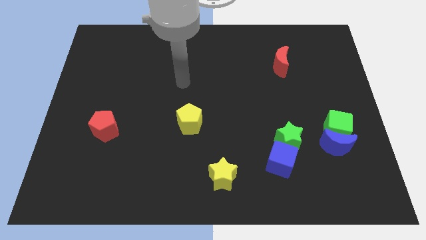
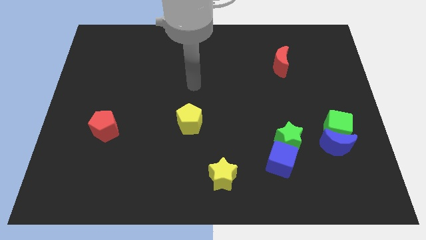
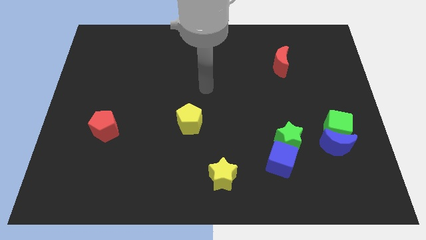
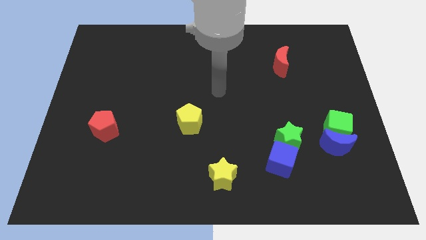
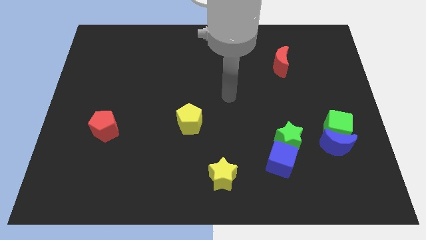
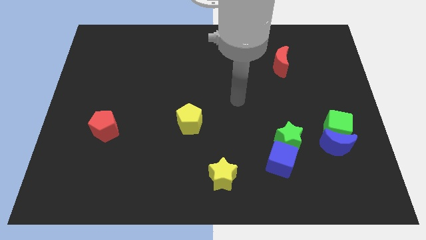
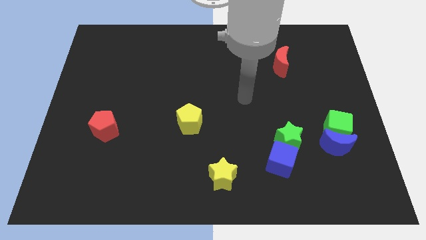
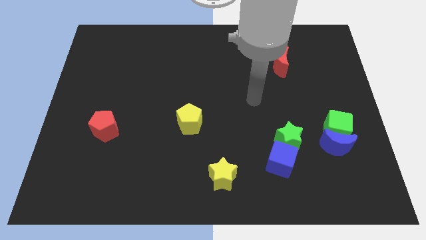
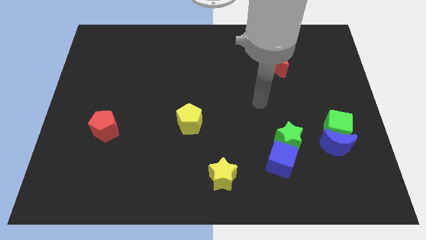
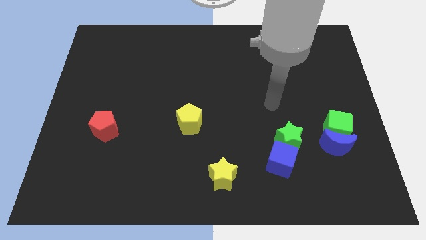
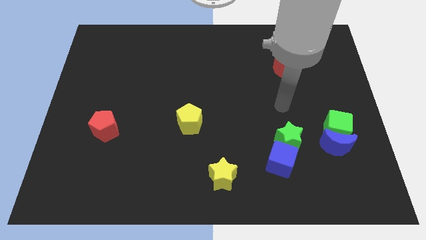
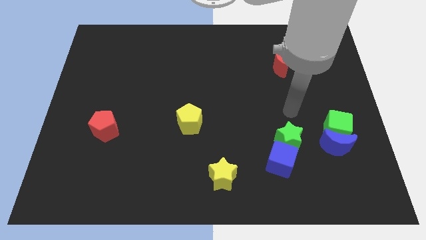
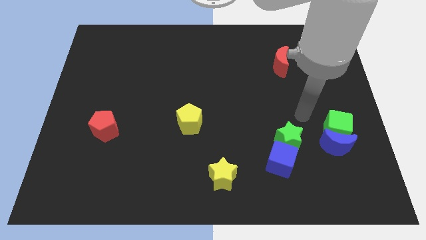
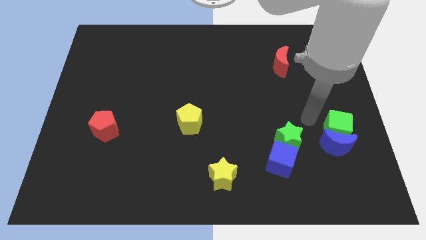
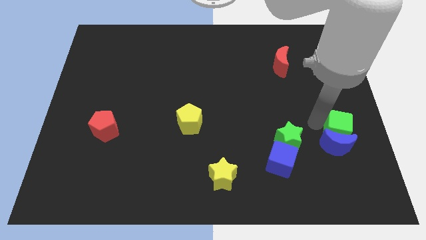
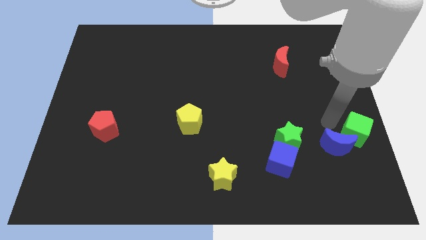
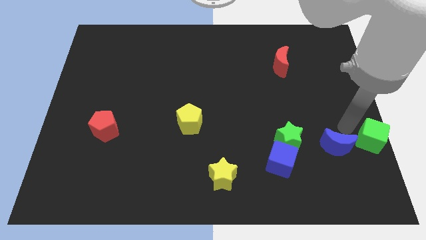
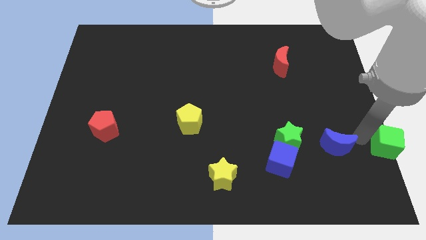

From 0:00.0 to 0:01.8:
pull the blue moon apart from the green cube

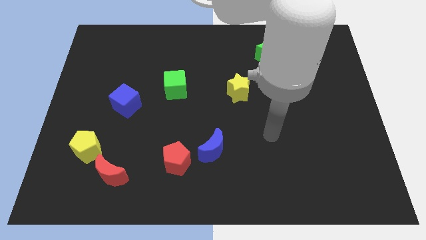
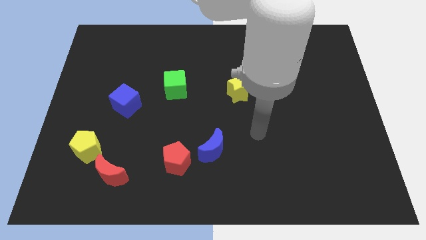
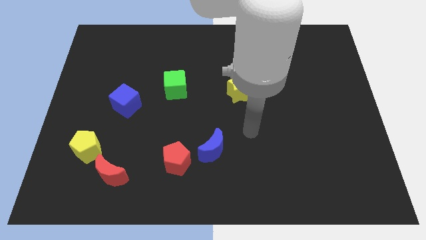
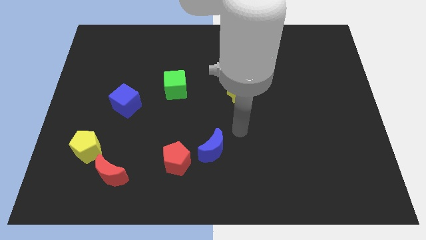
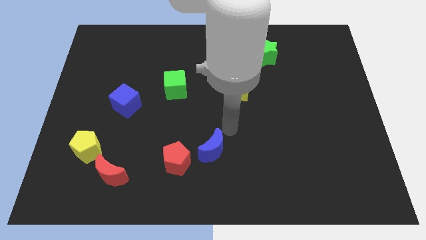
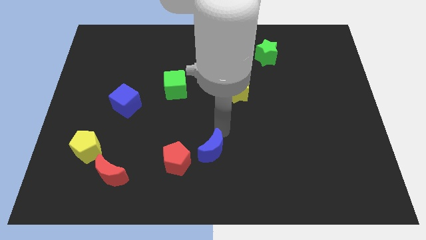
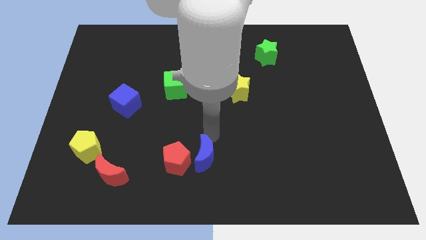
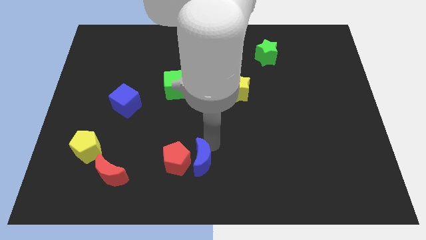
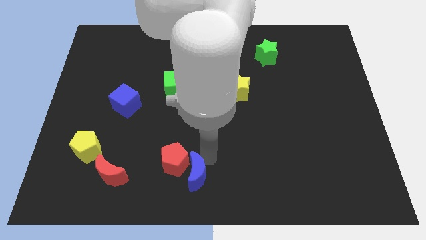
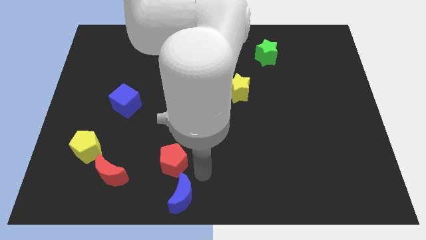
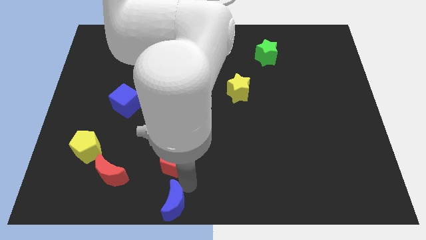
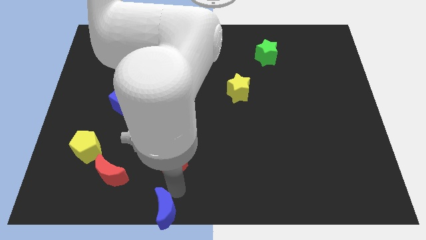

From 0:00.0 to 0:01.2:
pull the red pentagon apart from the blue moon

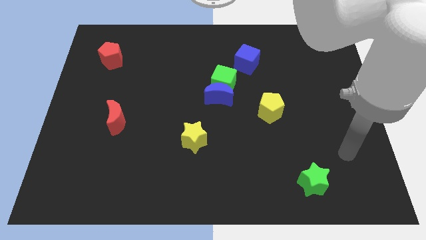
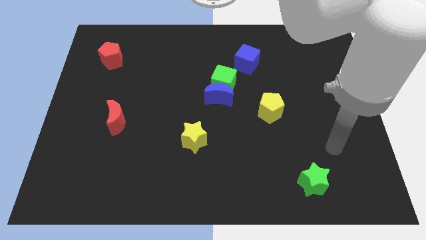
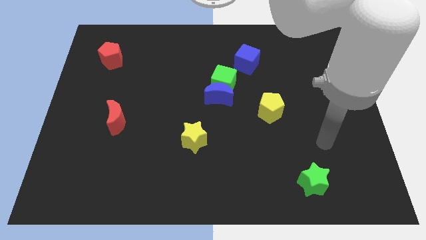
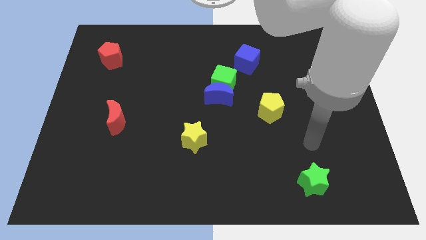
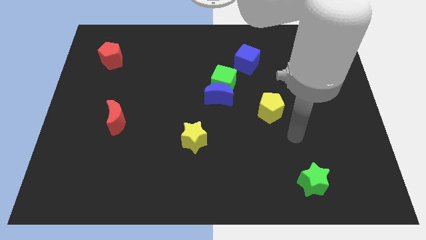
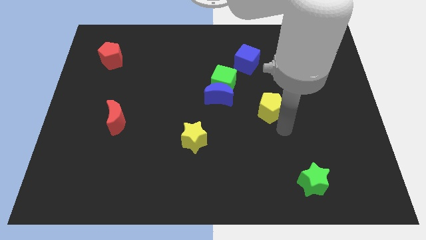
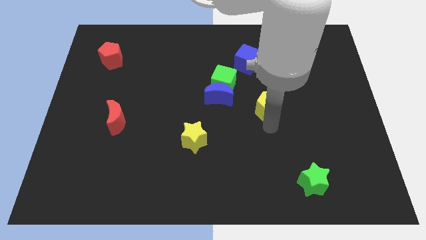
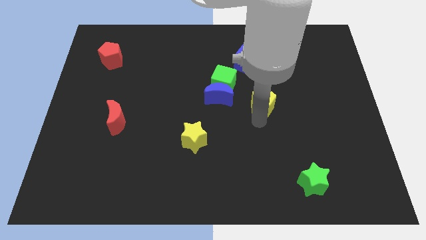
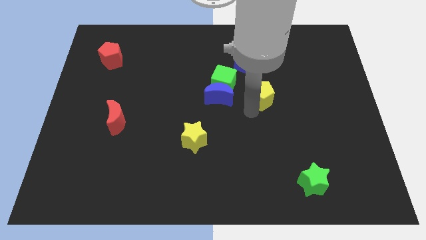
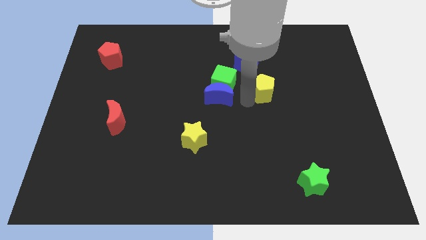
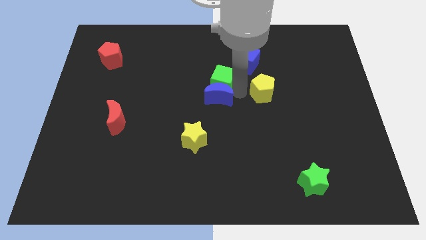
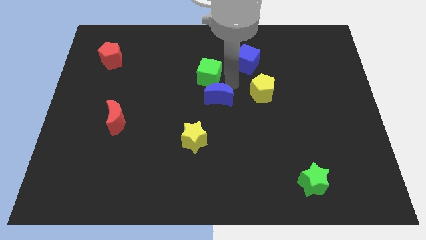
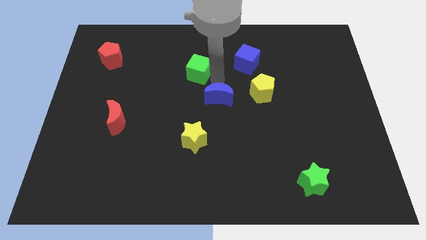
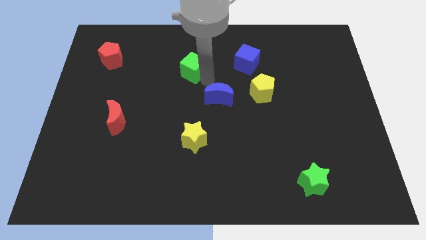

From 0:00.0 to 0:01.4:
separate the blue moon from the green cube

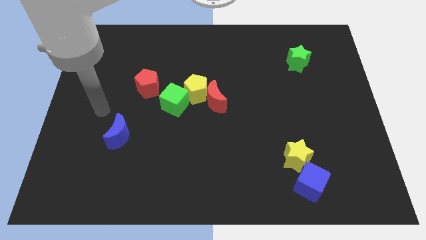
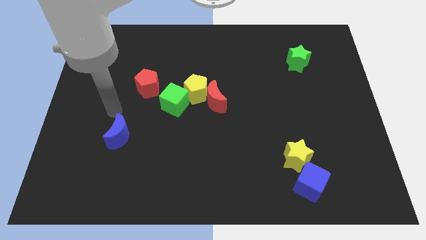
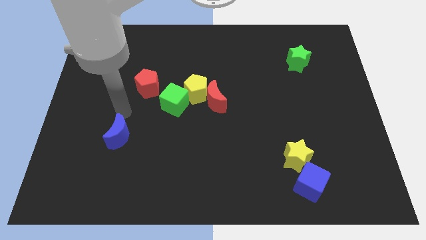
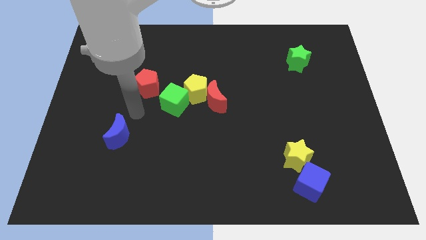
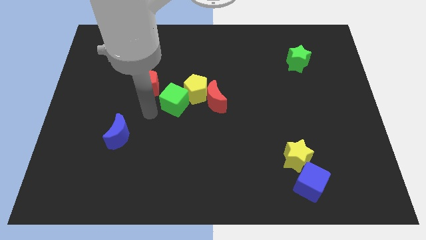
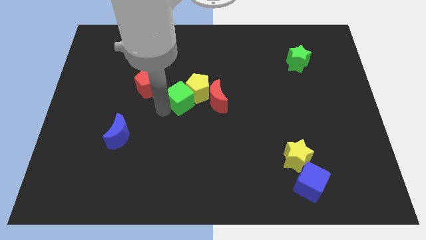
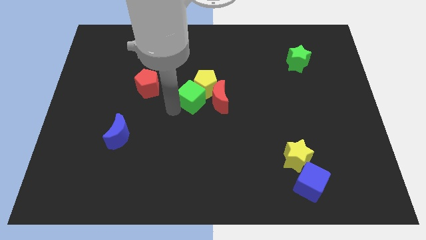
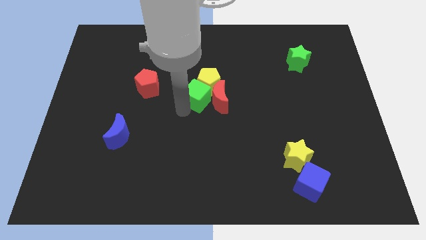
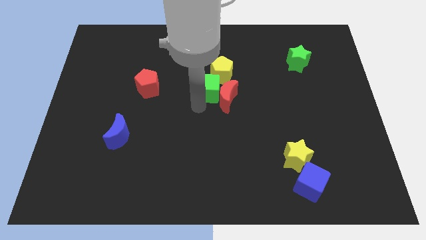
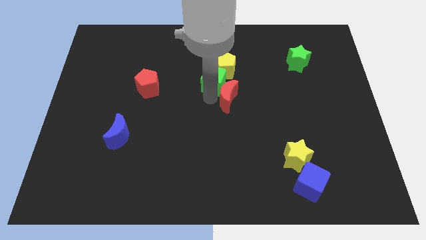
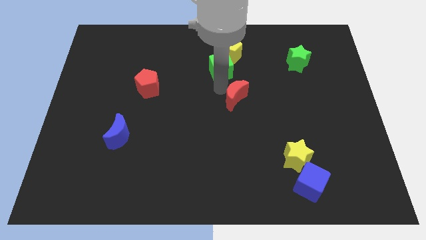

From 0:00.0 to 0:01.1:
pull the yellow pentagon apart from the red moon and green cube

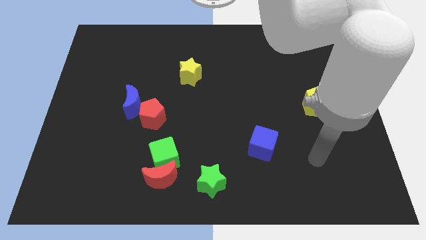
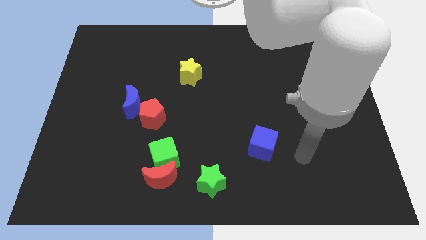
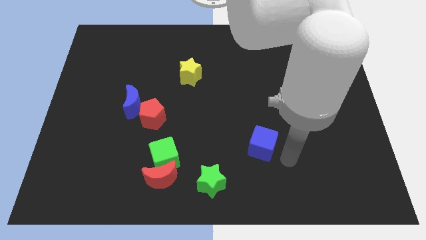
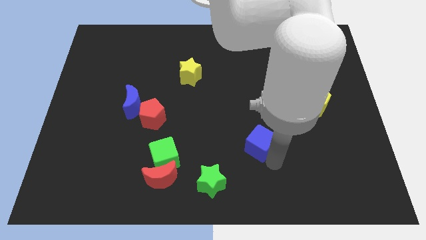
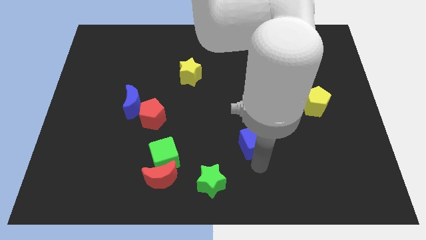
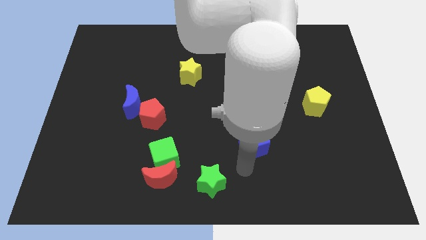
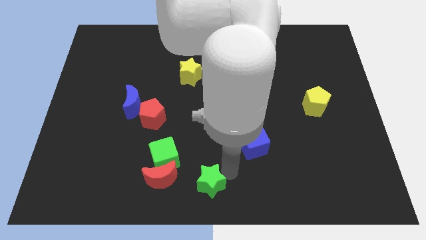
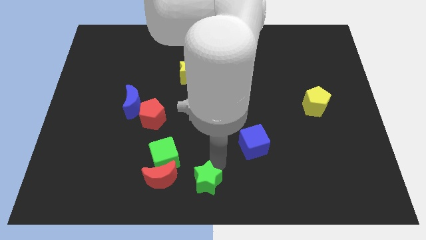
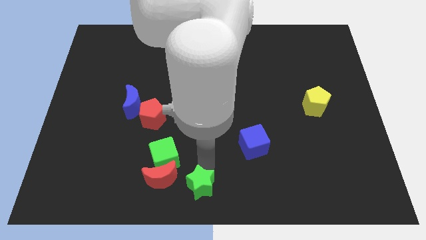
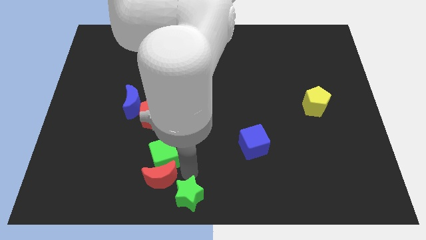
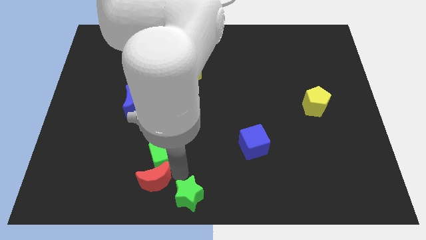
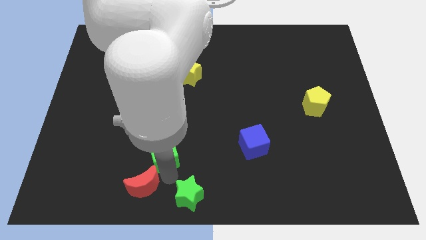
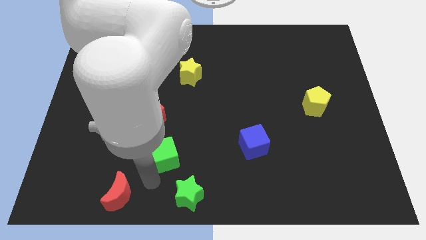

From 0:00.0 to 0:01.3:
move the green cube away from the red moon

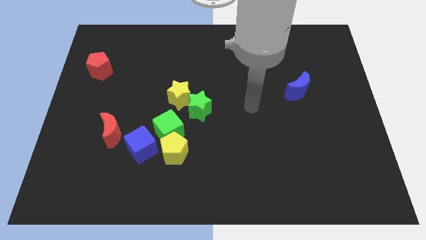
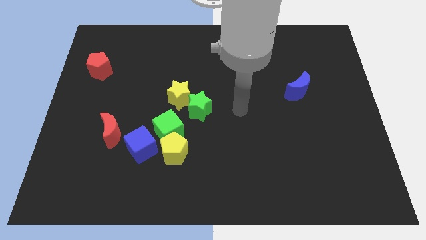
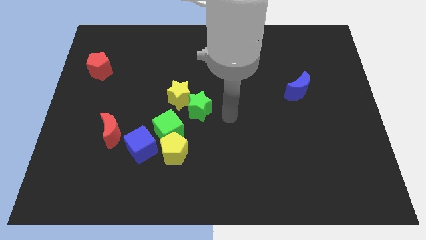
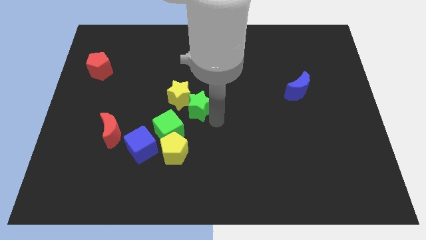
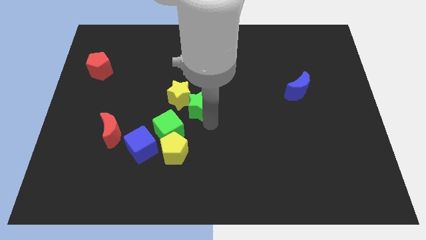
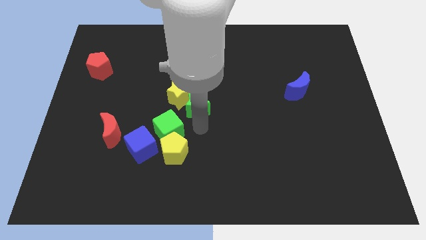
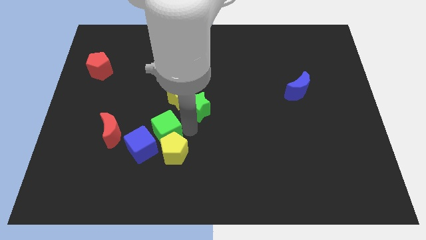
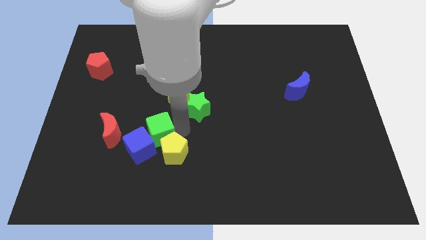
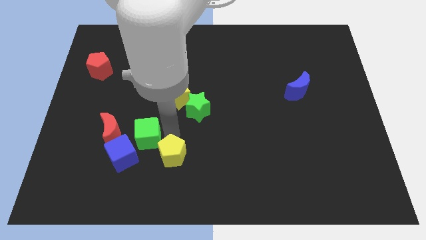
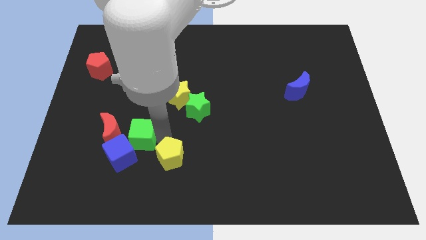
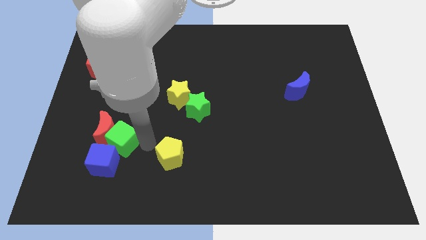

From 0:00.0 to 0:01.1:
move the yellow pentagon away from the green cube and blue cube

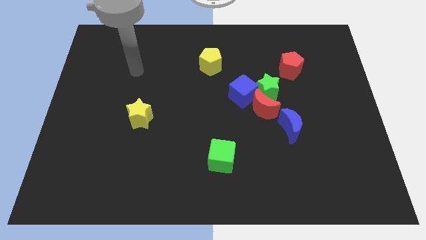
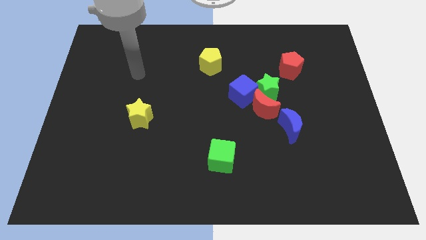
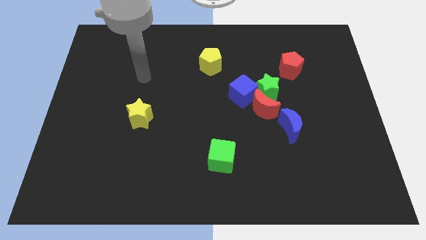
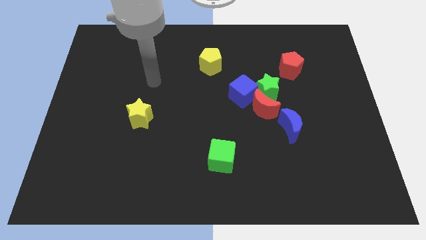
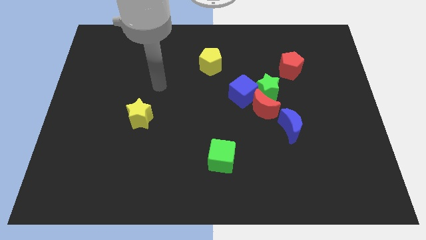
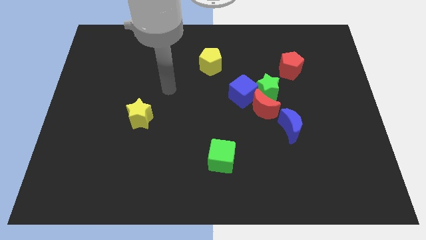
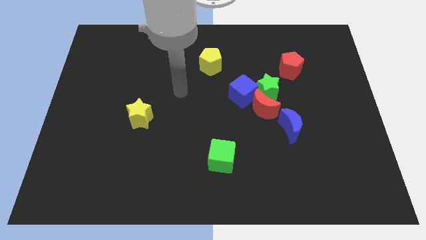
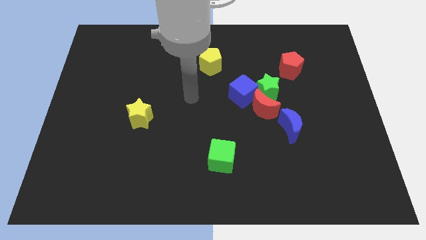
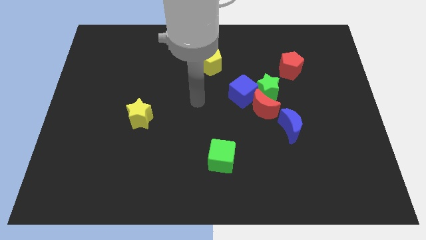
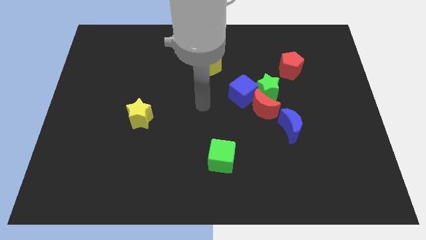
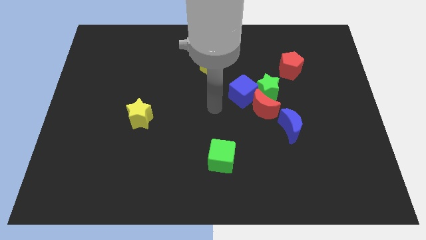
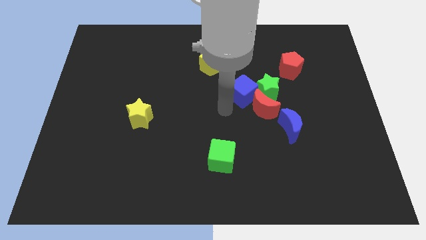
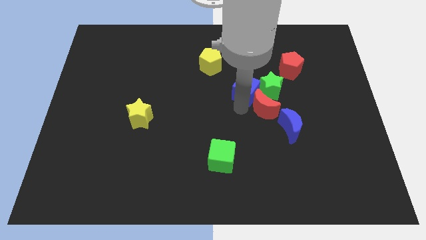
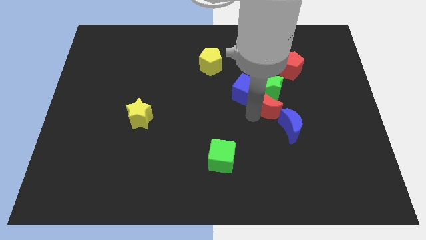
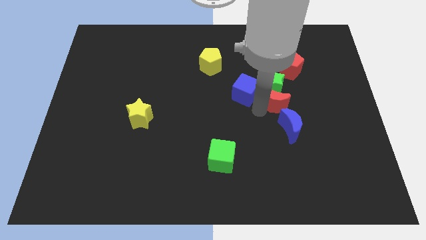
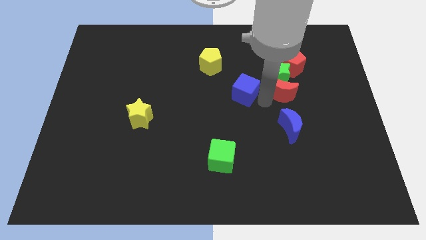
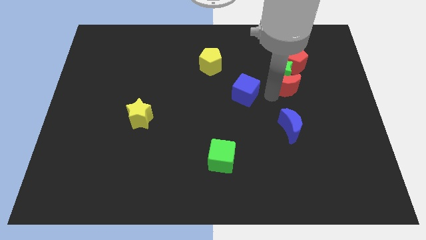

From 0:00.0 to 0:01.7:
pull the blue cube apart from the green star and red moon
